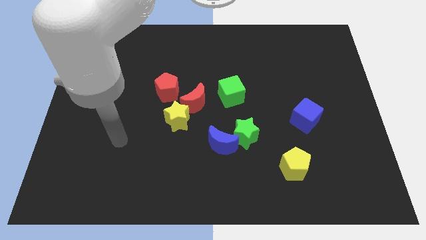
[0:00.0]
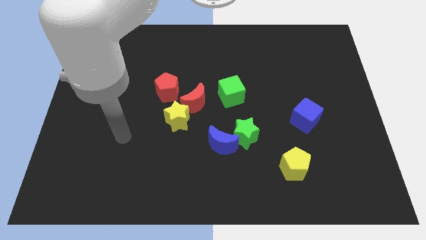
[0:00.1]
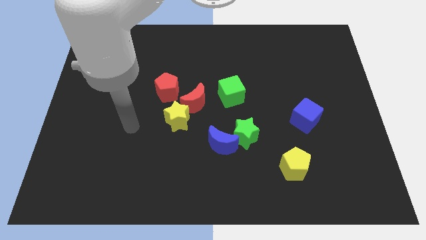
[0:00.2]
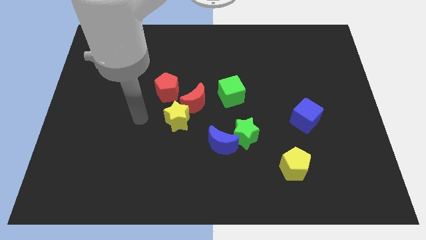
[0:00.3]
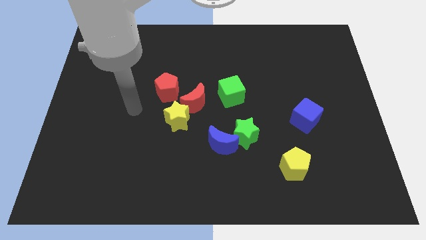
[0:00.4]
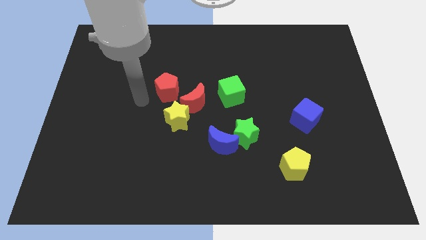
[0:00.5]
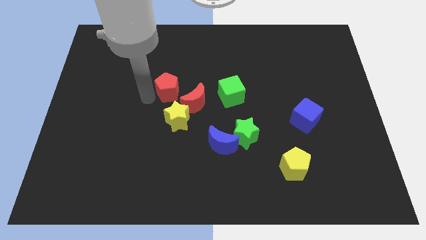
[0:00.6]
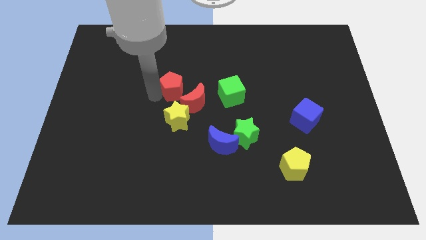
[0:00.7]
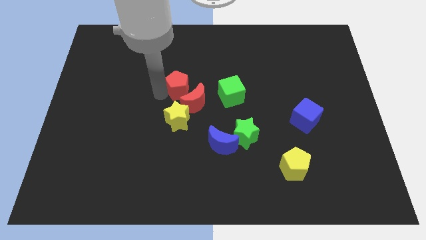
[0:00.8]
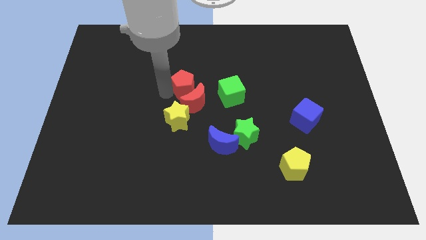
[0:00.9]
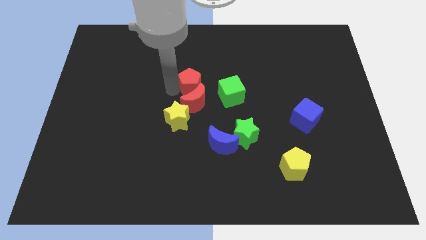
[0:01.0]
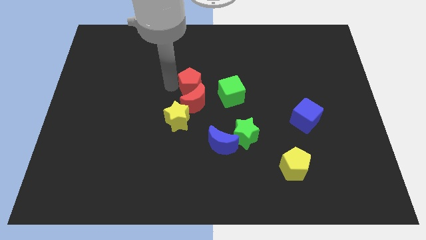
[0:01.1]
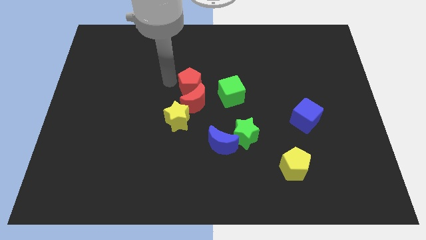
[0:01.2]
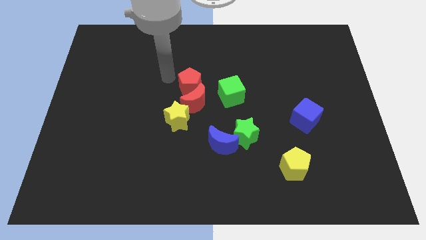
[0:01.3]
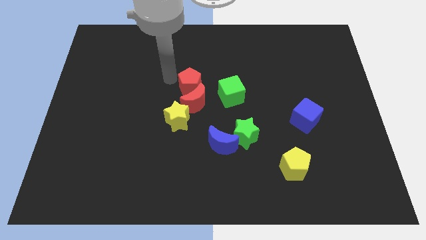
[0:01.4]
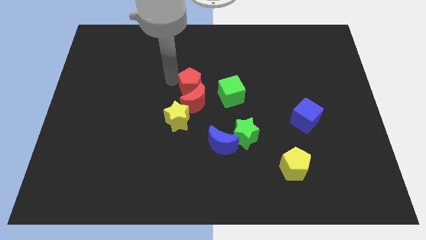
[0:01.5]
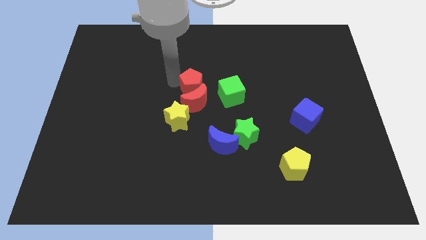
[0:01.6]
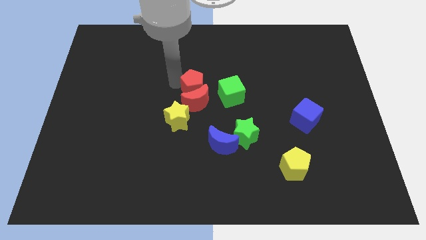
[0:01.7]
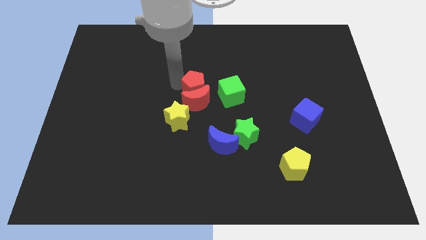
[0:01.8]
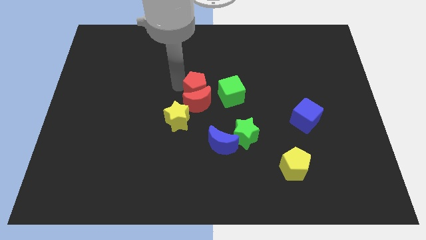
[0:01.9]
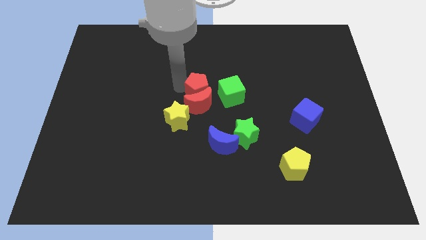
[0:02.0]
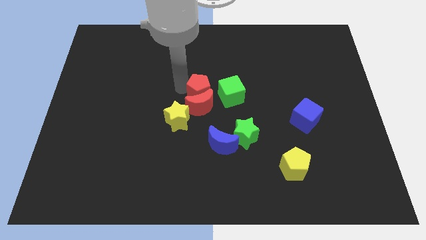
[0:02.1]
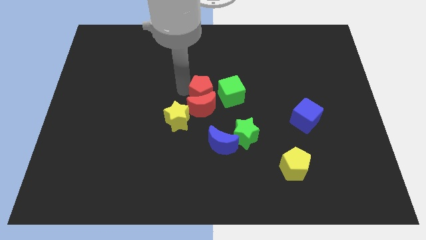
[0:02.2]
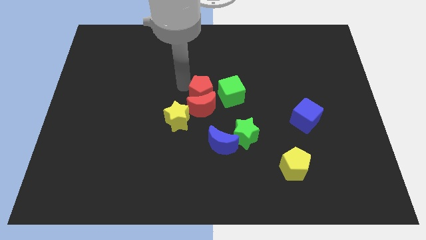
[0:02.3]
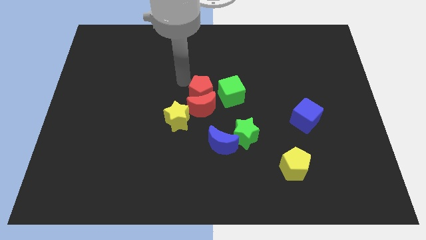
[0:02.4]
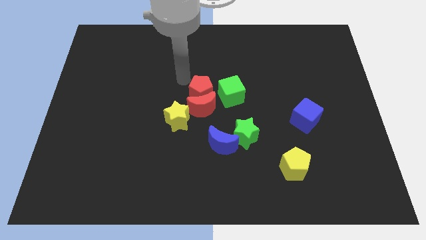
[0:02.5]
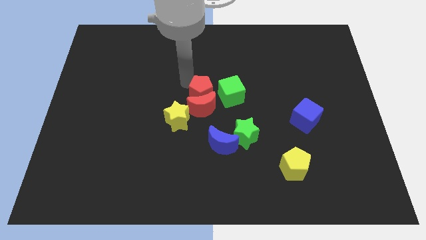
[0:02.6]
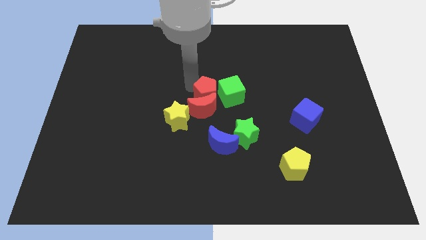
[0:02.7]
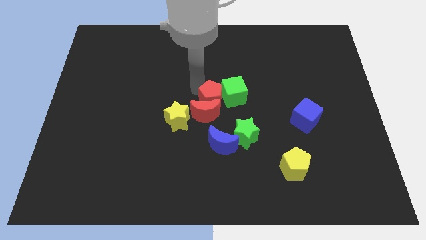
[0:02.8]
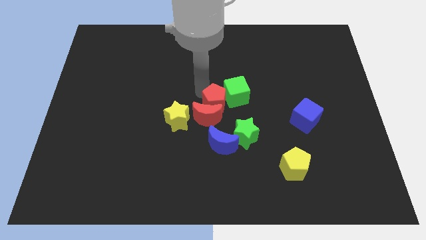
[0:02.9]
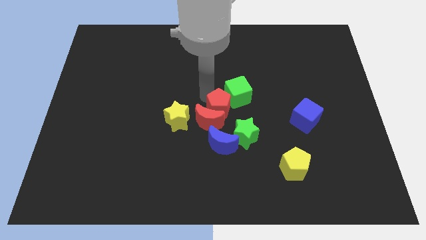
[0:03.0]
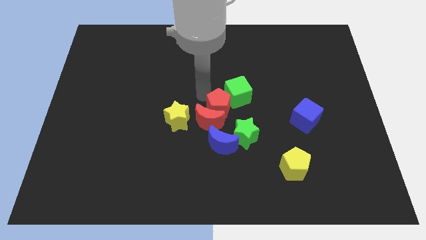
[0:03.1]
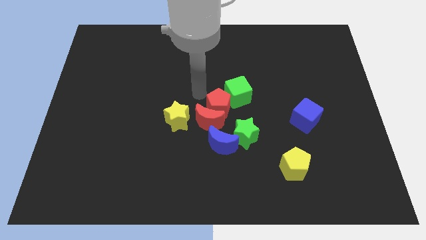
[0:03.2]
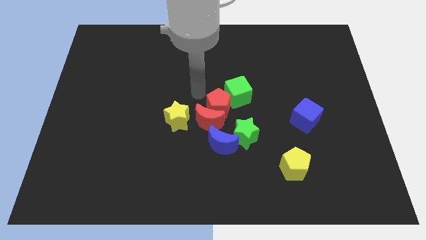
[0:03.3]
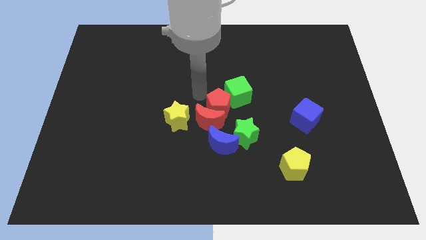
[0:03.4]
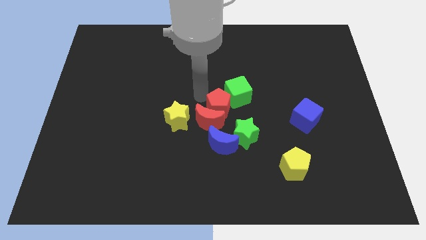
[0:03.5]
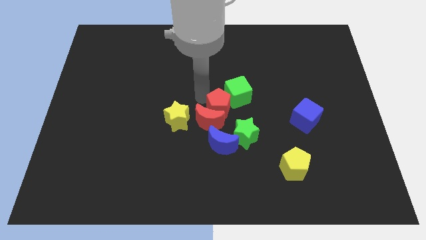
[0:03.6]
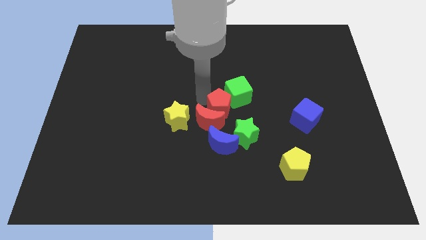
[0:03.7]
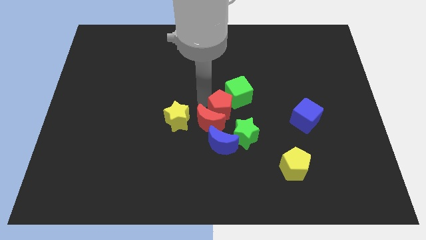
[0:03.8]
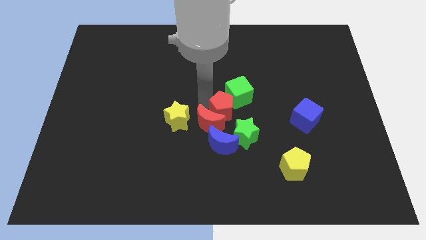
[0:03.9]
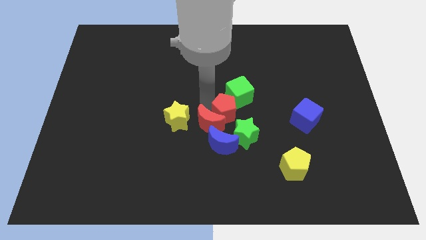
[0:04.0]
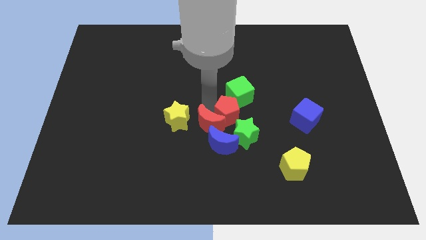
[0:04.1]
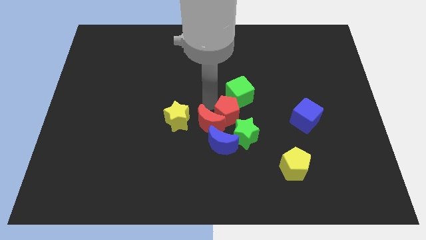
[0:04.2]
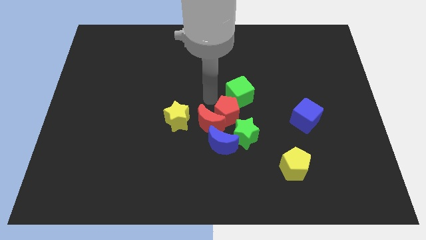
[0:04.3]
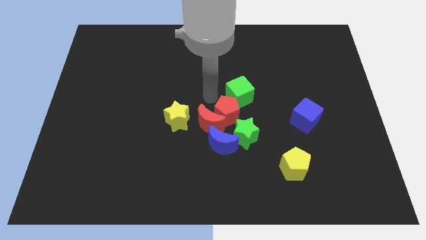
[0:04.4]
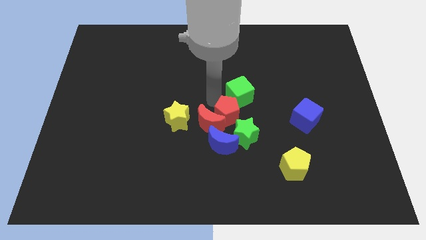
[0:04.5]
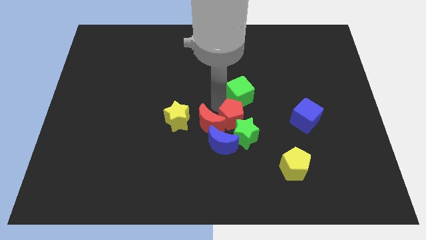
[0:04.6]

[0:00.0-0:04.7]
put the red pentagon next to the green star

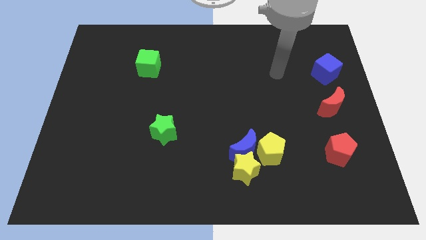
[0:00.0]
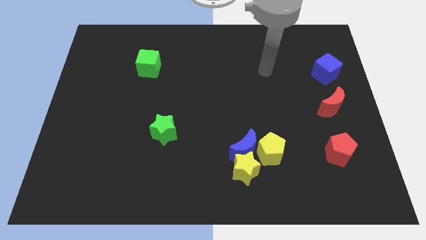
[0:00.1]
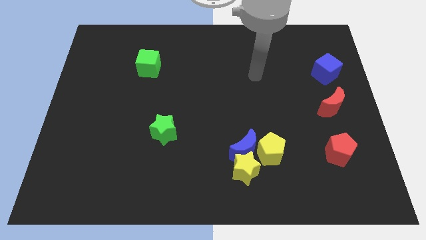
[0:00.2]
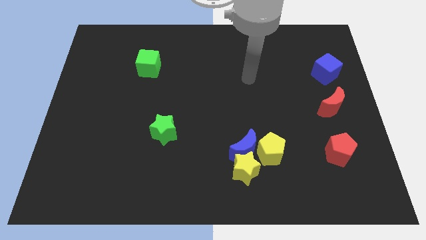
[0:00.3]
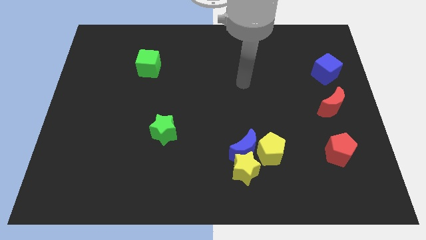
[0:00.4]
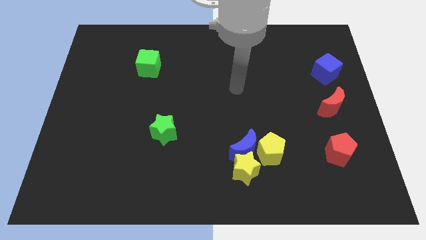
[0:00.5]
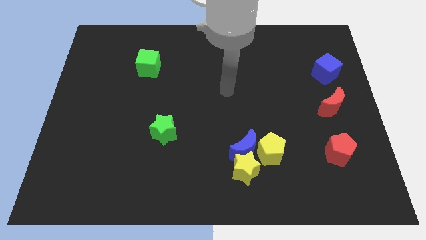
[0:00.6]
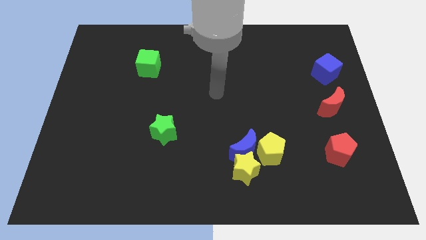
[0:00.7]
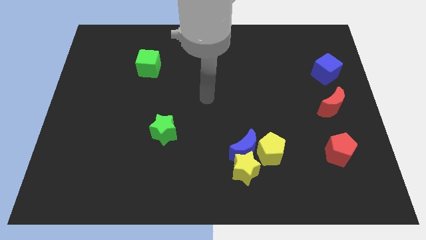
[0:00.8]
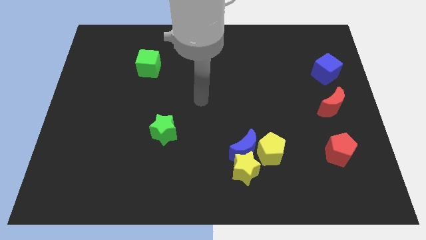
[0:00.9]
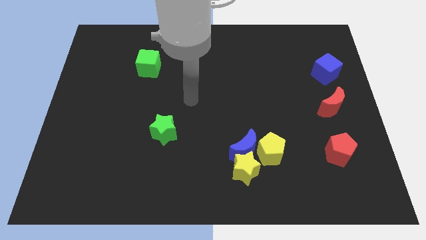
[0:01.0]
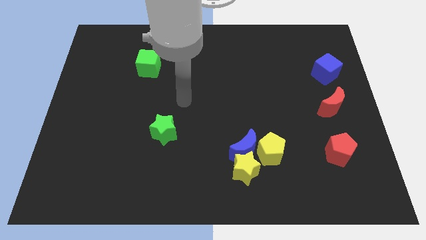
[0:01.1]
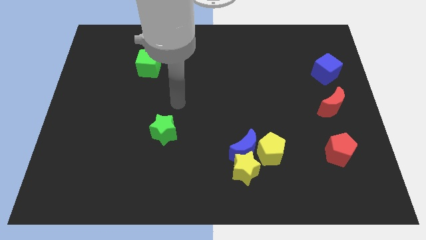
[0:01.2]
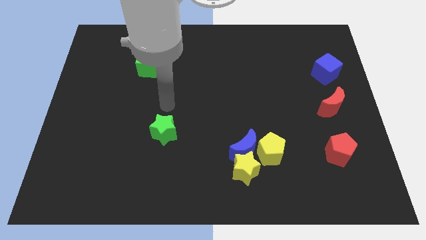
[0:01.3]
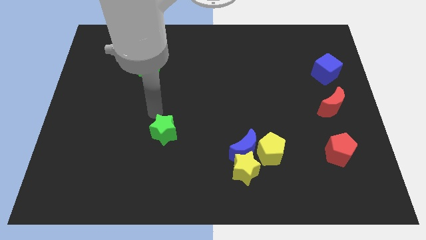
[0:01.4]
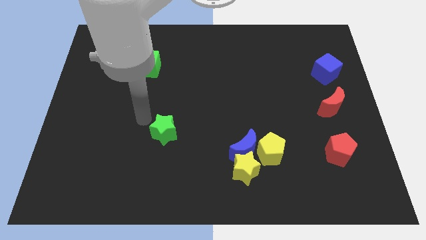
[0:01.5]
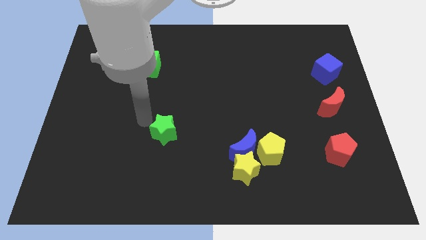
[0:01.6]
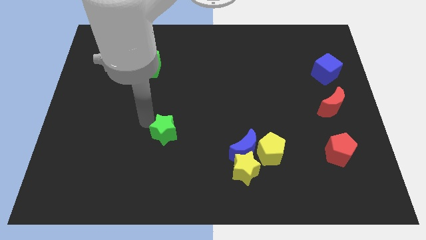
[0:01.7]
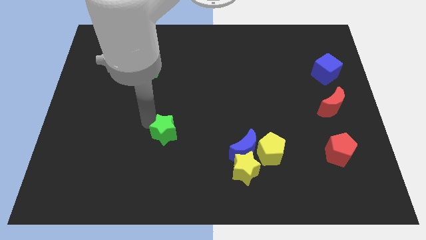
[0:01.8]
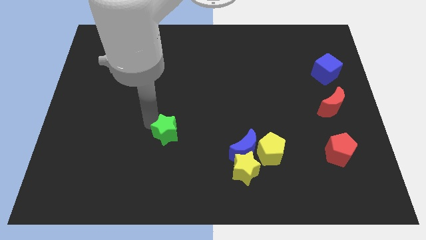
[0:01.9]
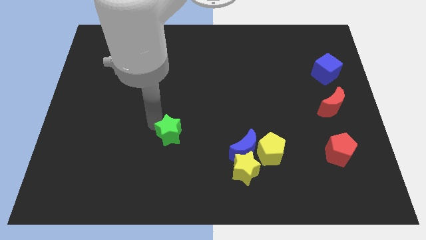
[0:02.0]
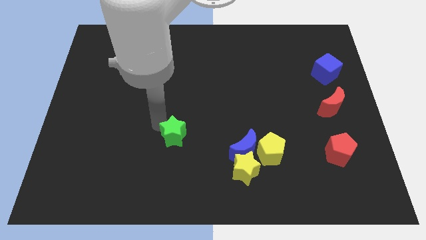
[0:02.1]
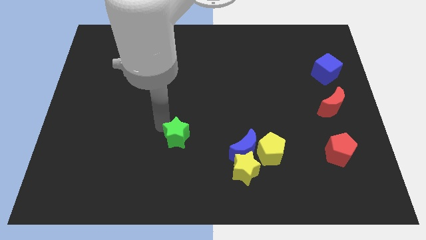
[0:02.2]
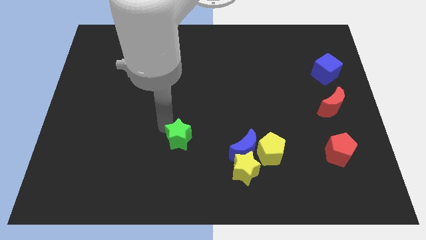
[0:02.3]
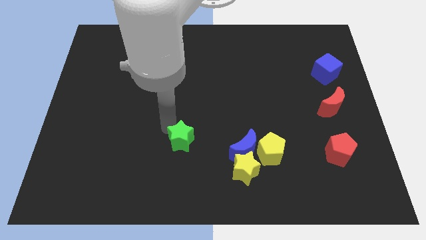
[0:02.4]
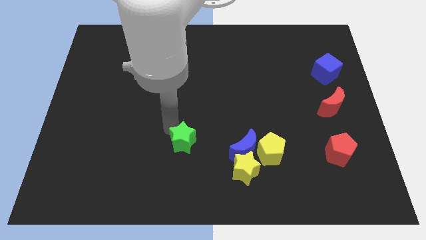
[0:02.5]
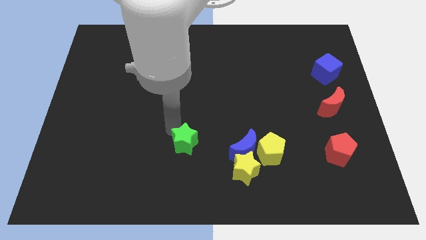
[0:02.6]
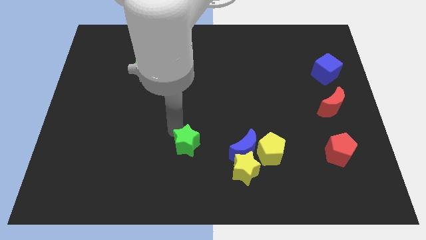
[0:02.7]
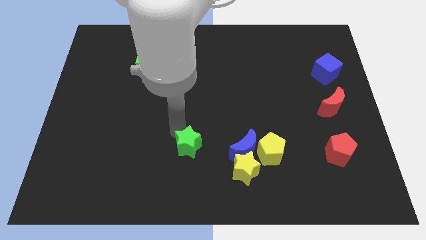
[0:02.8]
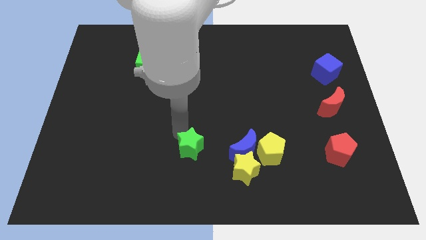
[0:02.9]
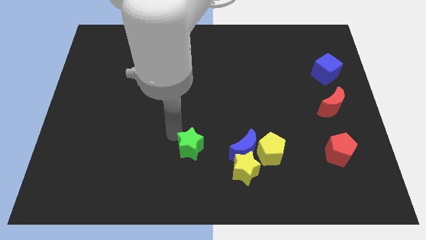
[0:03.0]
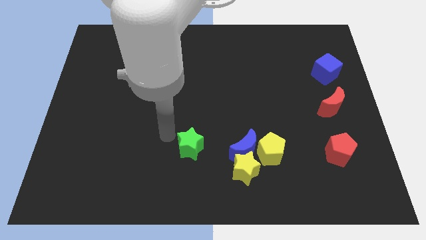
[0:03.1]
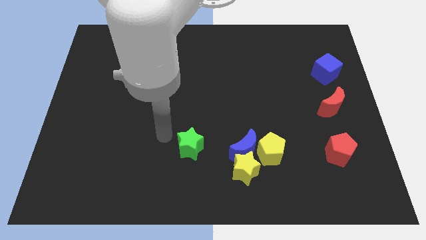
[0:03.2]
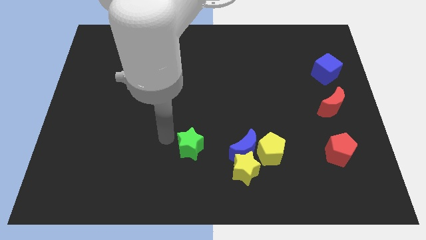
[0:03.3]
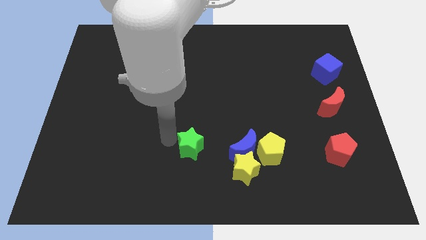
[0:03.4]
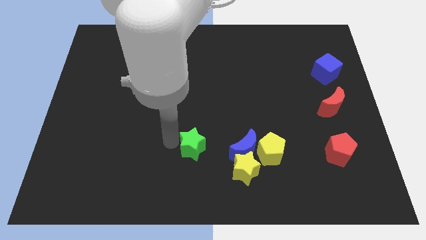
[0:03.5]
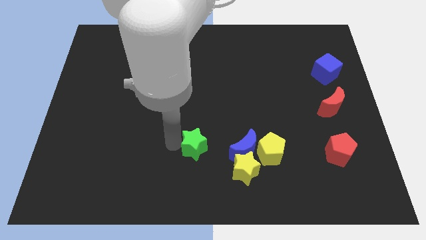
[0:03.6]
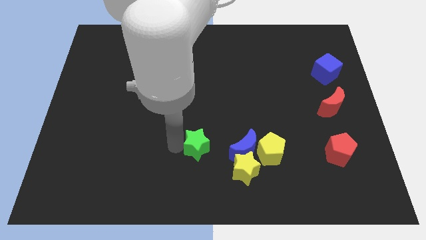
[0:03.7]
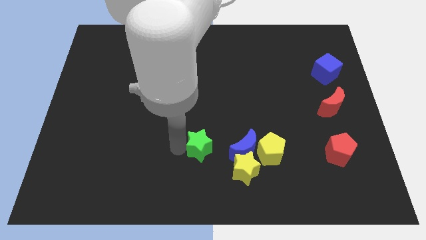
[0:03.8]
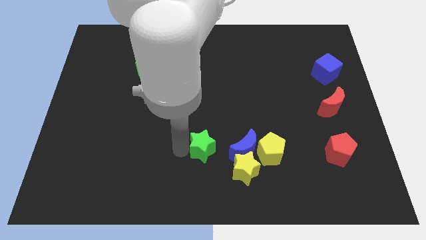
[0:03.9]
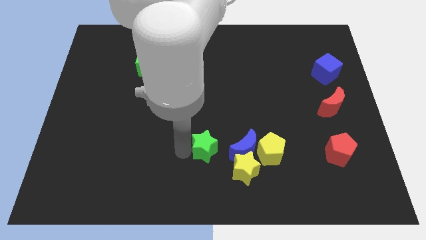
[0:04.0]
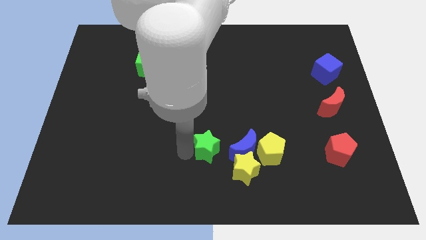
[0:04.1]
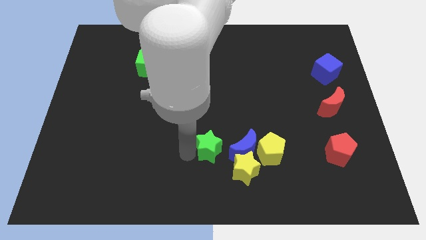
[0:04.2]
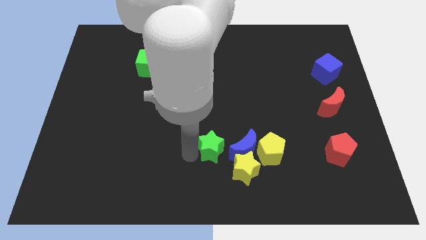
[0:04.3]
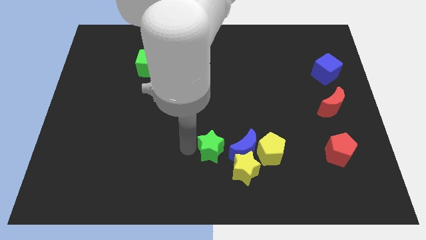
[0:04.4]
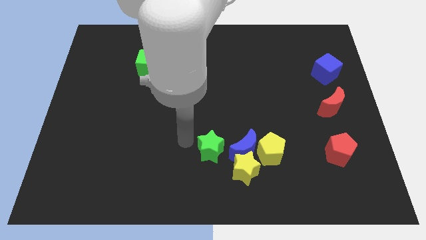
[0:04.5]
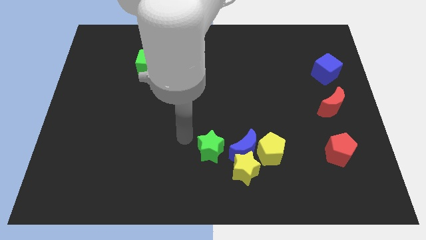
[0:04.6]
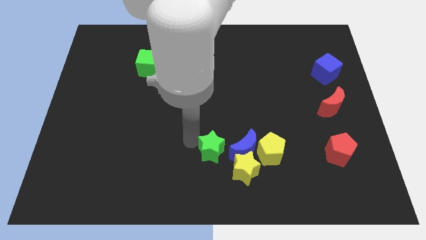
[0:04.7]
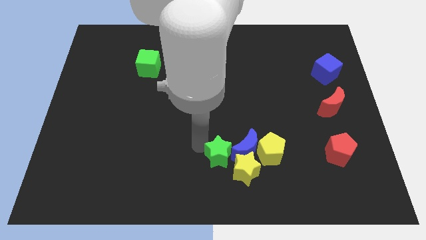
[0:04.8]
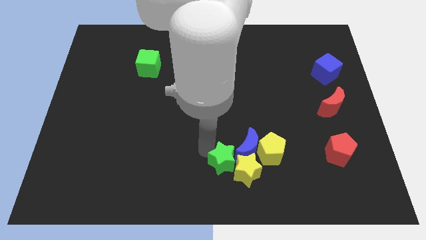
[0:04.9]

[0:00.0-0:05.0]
put the green star to the yellow star
